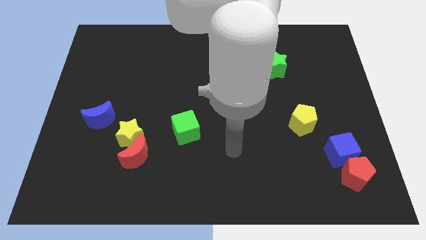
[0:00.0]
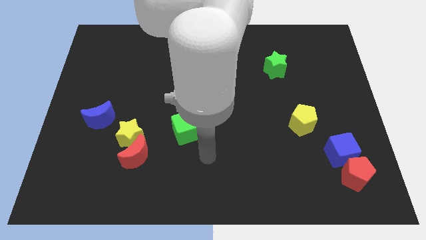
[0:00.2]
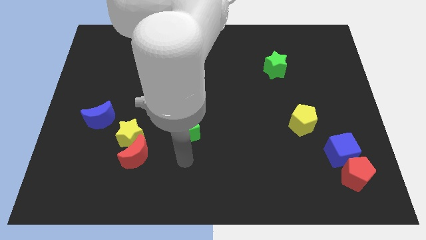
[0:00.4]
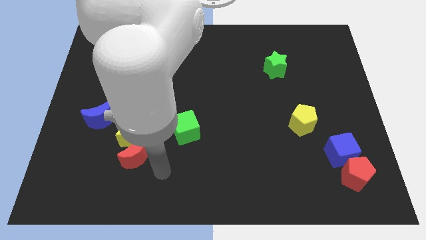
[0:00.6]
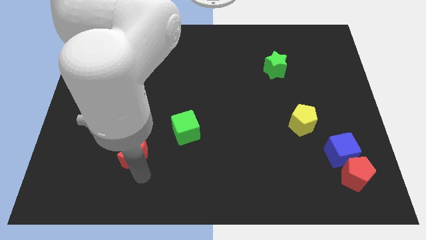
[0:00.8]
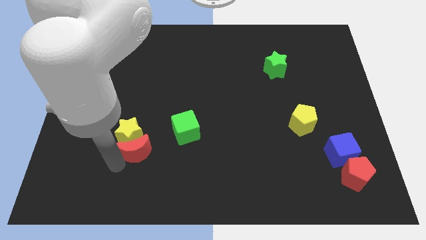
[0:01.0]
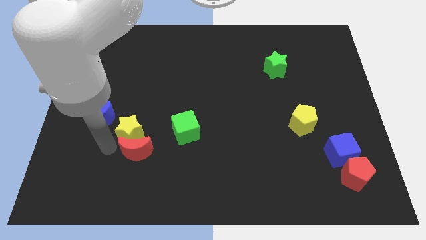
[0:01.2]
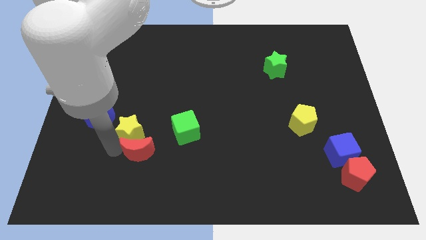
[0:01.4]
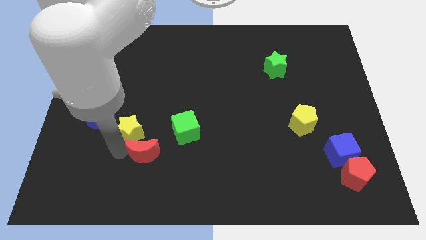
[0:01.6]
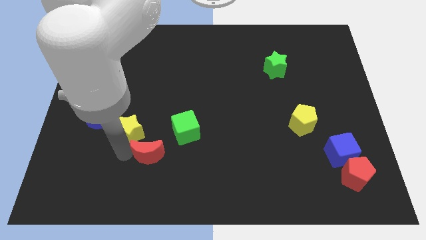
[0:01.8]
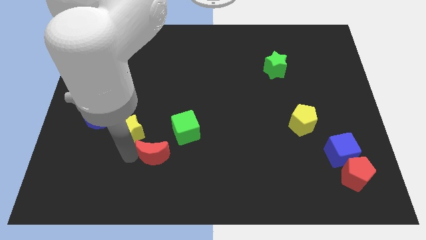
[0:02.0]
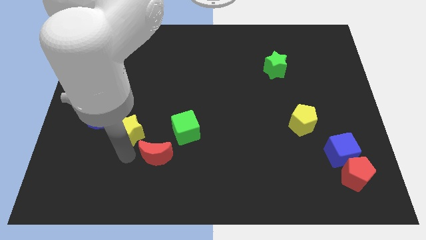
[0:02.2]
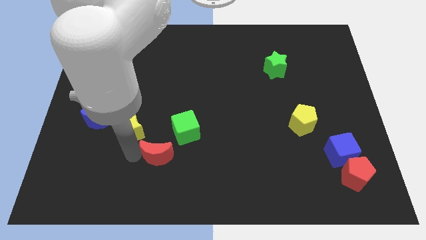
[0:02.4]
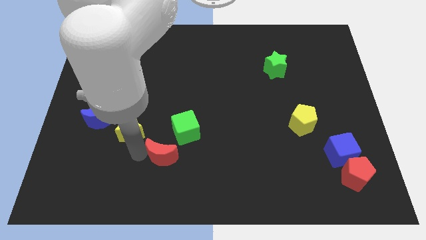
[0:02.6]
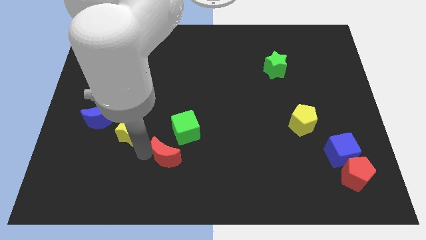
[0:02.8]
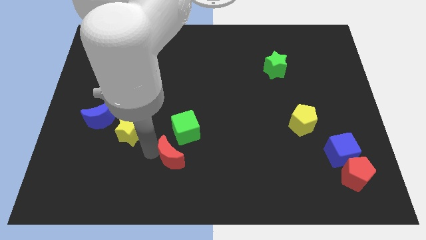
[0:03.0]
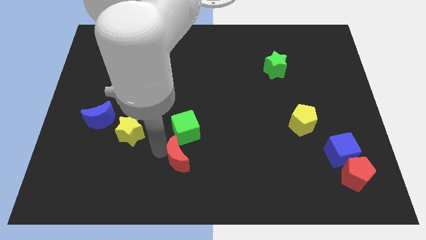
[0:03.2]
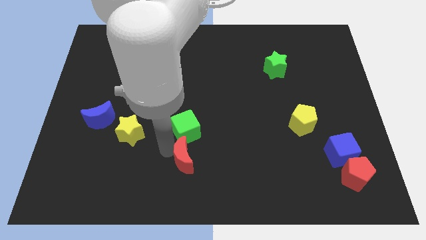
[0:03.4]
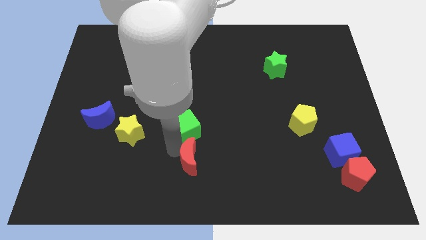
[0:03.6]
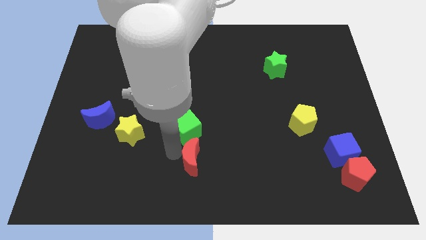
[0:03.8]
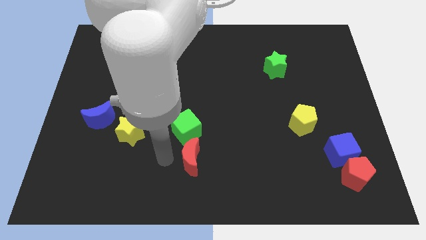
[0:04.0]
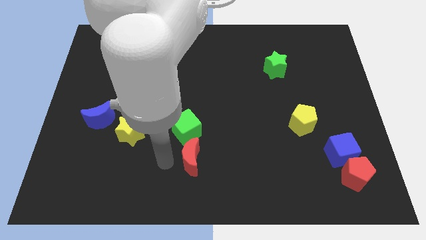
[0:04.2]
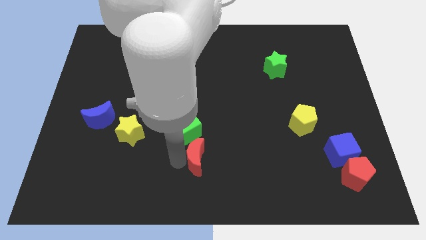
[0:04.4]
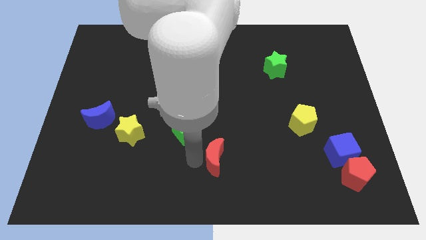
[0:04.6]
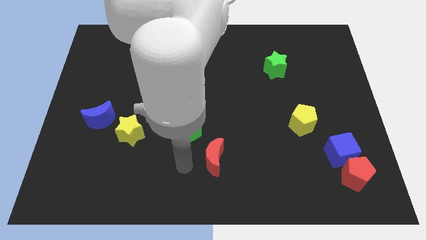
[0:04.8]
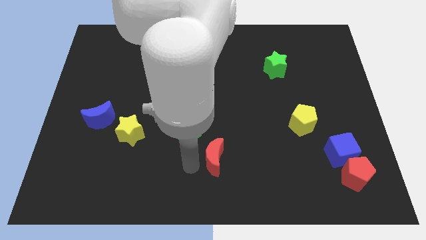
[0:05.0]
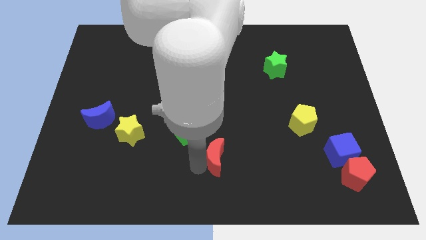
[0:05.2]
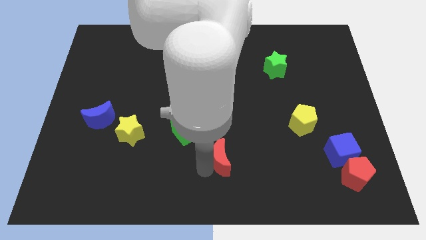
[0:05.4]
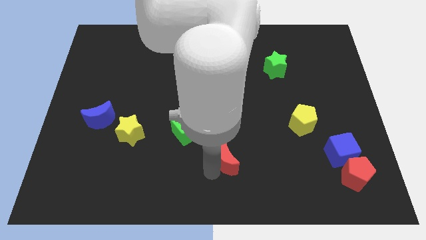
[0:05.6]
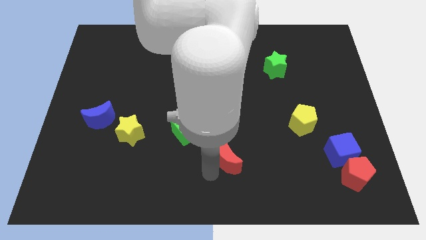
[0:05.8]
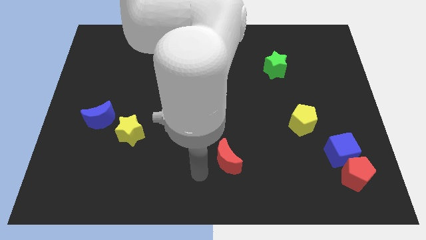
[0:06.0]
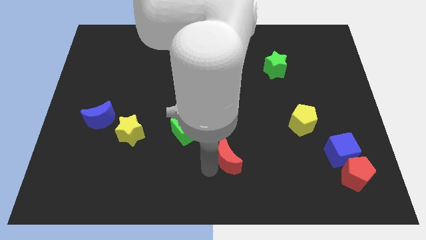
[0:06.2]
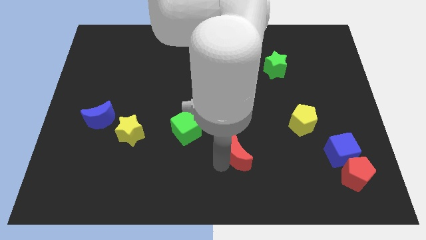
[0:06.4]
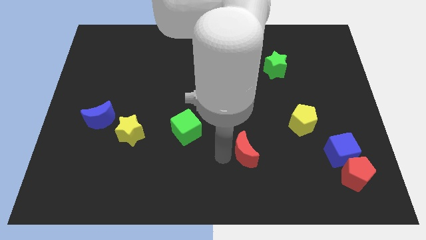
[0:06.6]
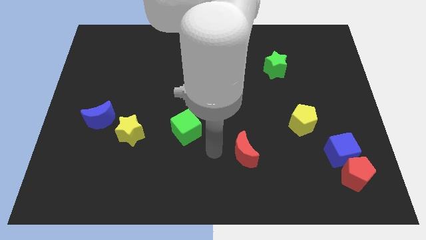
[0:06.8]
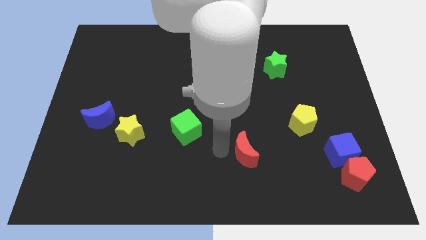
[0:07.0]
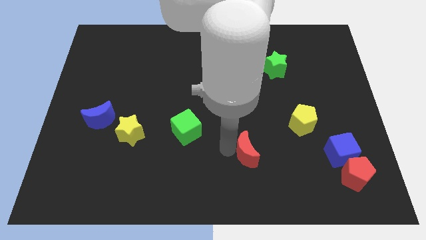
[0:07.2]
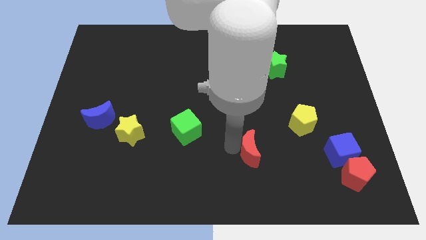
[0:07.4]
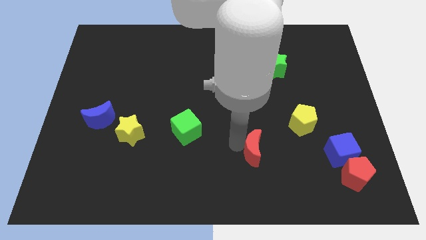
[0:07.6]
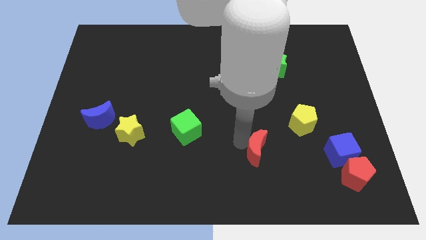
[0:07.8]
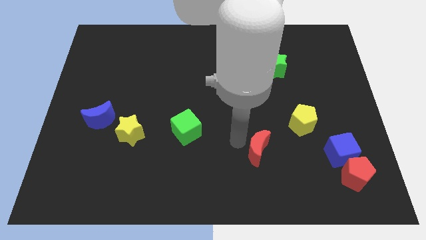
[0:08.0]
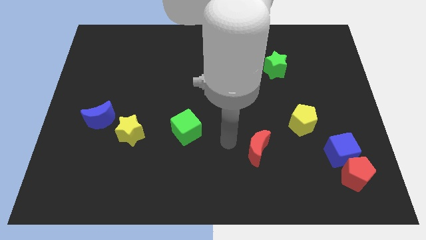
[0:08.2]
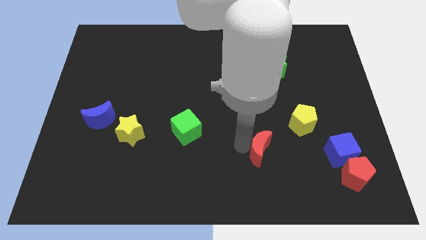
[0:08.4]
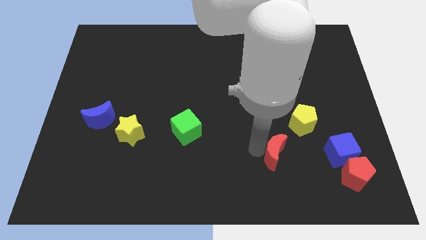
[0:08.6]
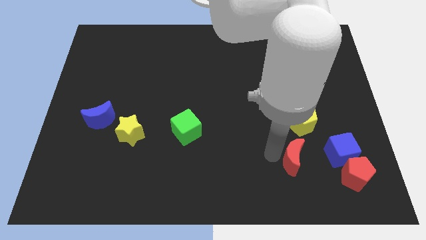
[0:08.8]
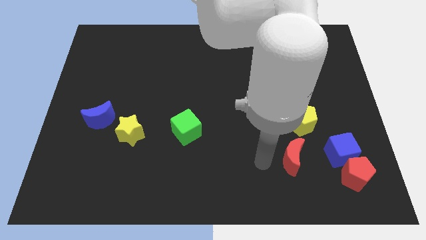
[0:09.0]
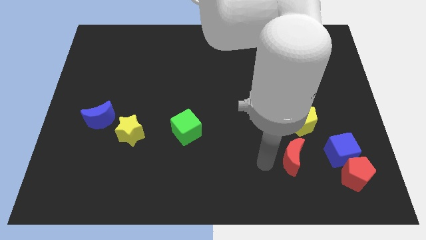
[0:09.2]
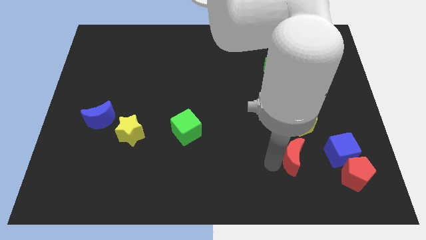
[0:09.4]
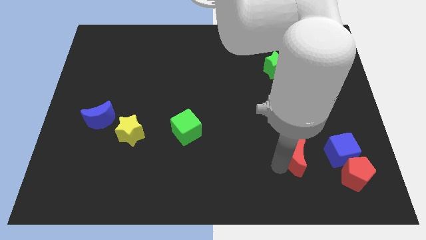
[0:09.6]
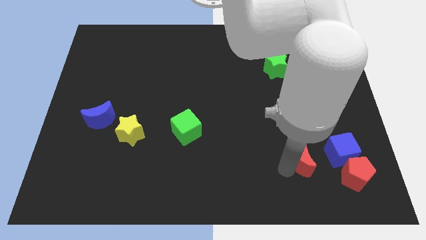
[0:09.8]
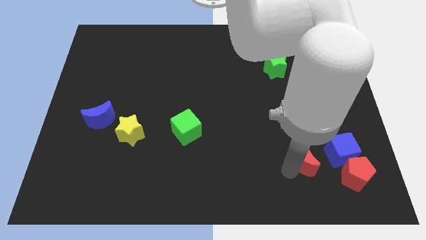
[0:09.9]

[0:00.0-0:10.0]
push the red moon to the top left of the red pentagon

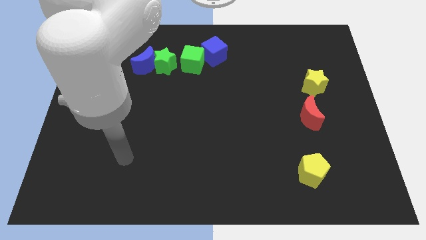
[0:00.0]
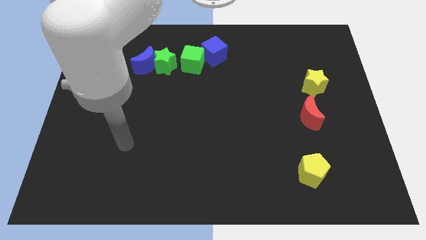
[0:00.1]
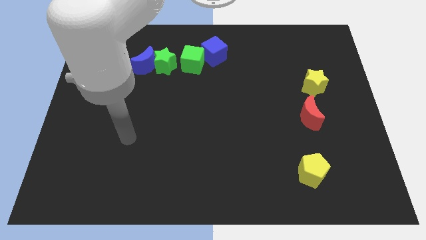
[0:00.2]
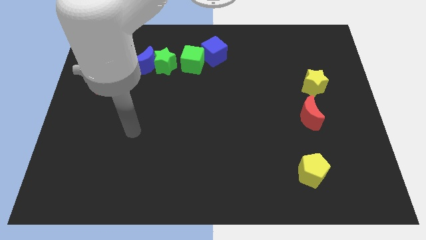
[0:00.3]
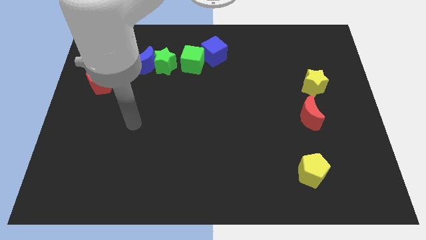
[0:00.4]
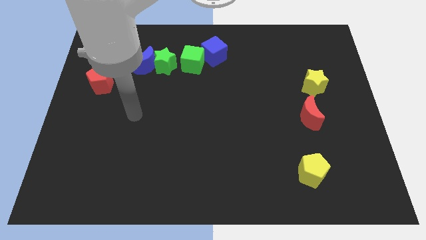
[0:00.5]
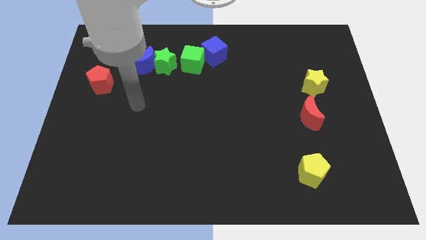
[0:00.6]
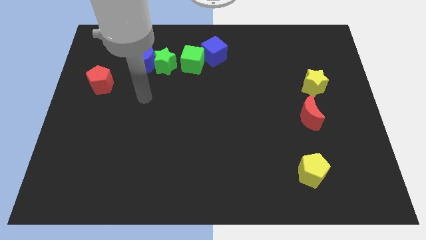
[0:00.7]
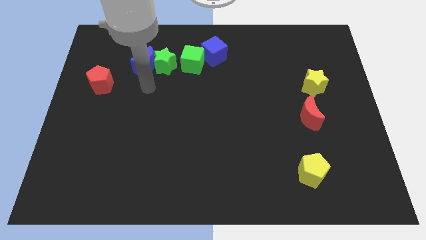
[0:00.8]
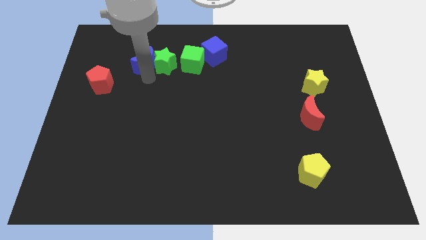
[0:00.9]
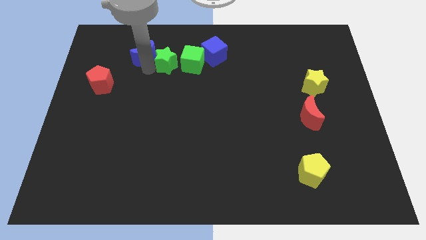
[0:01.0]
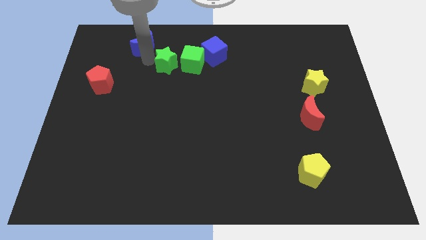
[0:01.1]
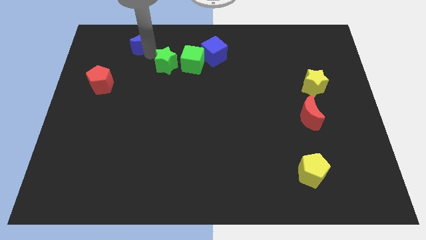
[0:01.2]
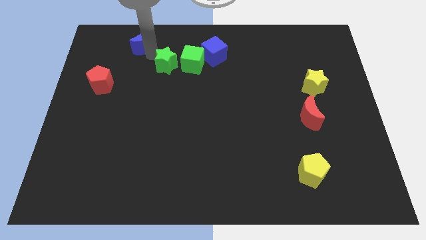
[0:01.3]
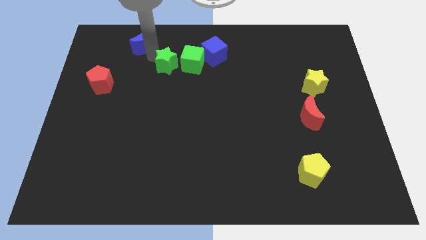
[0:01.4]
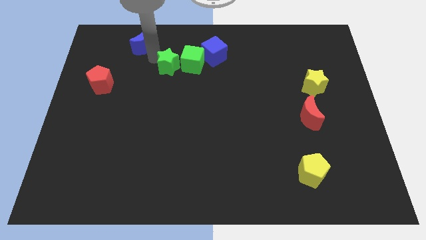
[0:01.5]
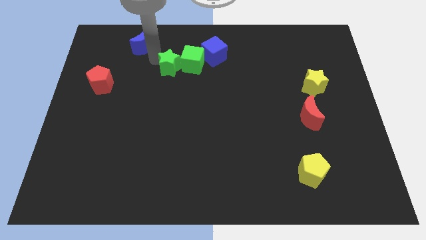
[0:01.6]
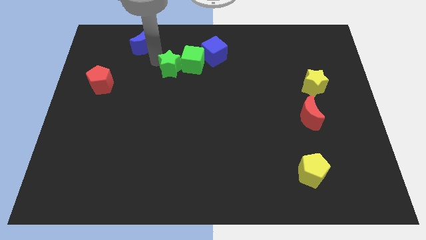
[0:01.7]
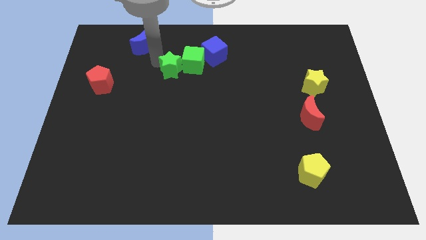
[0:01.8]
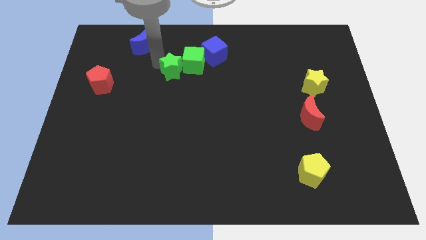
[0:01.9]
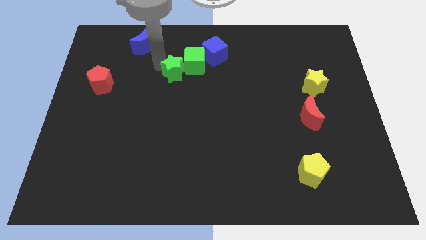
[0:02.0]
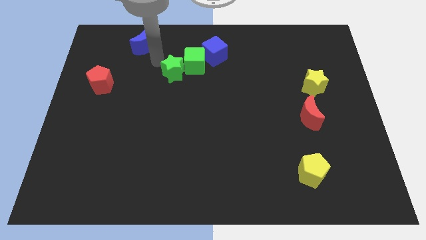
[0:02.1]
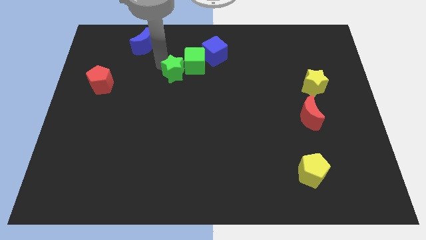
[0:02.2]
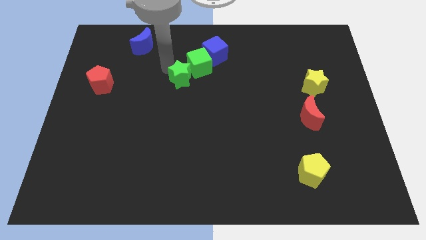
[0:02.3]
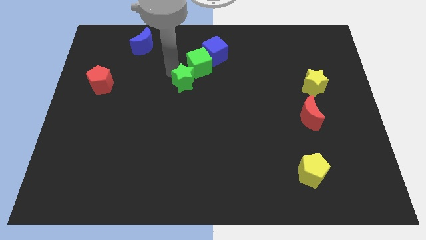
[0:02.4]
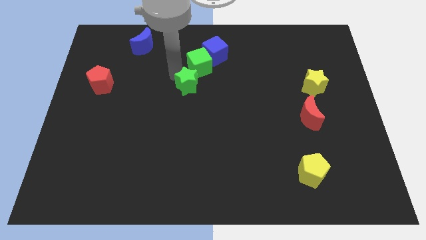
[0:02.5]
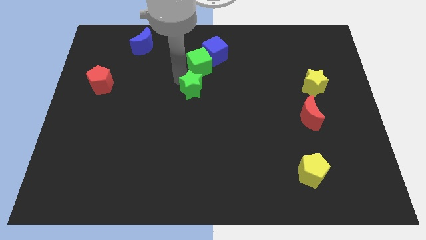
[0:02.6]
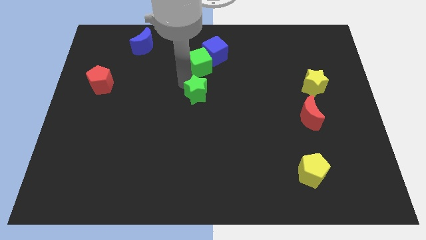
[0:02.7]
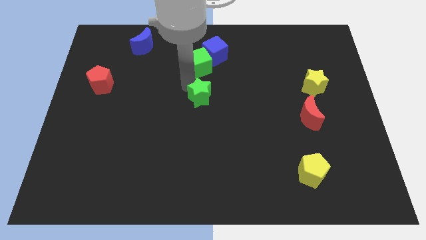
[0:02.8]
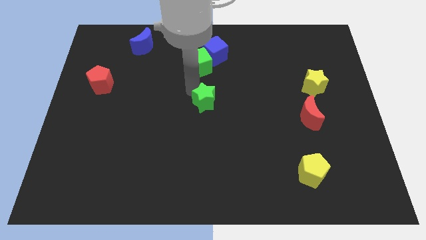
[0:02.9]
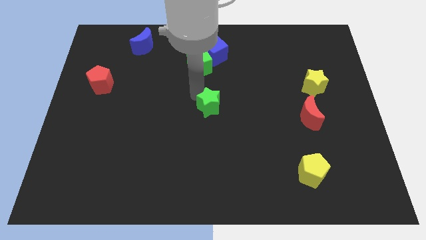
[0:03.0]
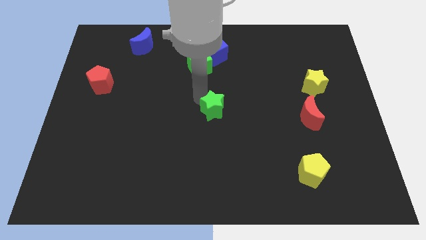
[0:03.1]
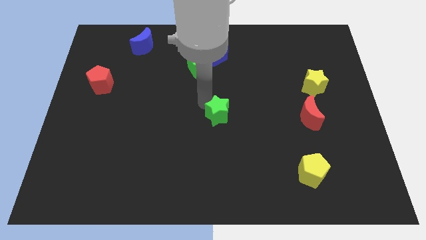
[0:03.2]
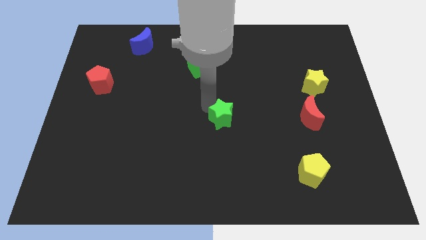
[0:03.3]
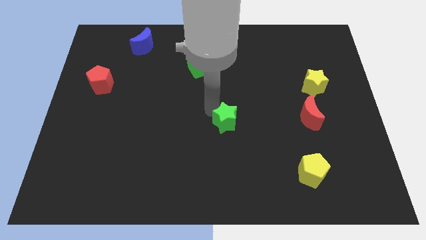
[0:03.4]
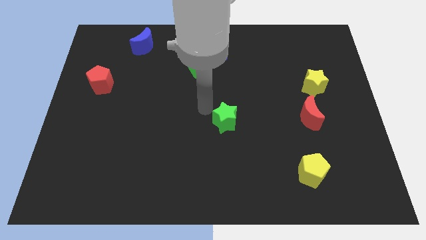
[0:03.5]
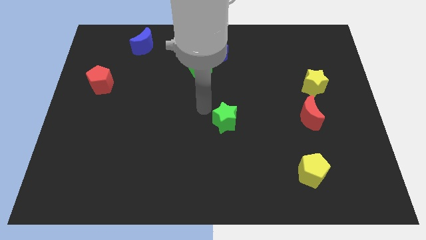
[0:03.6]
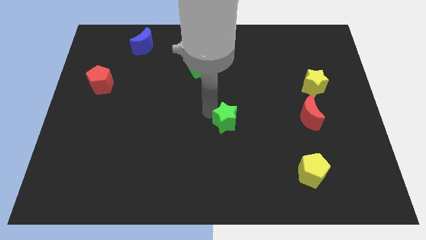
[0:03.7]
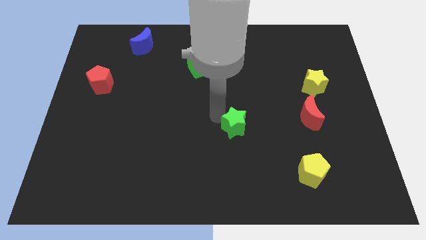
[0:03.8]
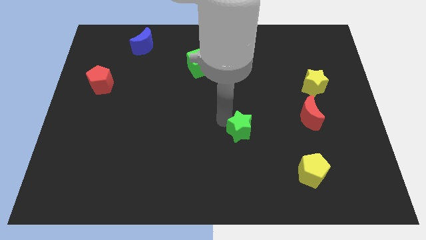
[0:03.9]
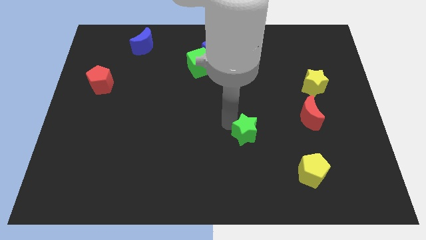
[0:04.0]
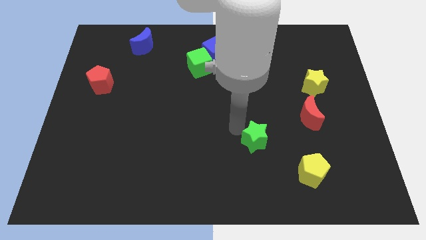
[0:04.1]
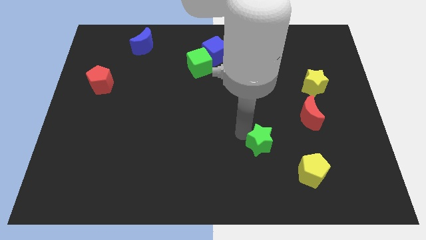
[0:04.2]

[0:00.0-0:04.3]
put the green star to the top left side of the yellow pentagon
